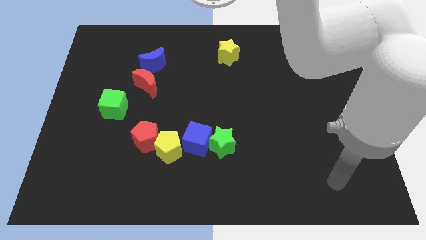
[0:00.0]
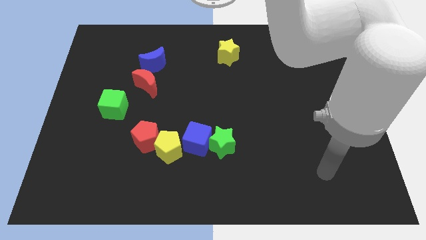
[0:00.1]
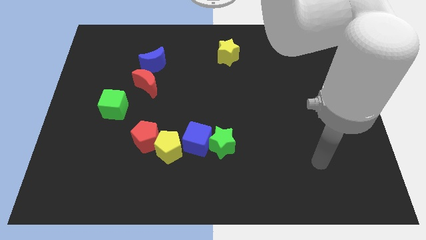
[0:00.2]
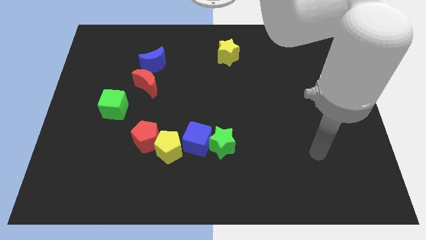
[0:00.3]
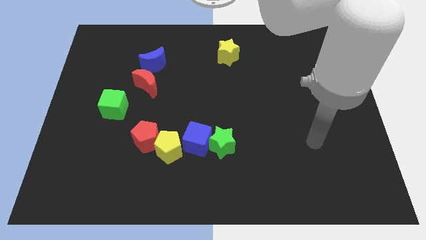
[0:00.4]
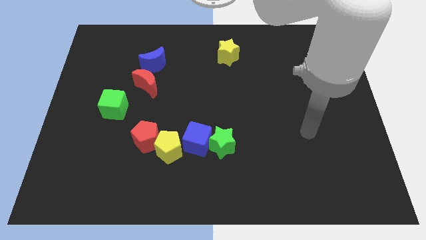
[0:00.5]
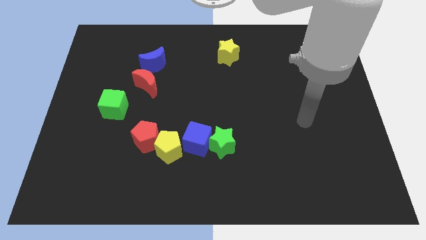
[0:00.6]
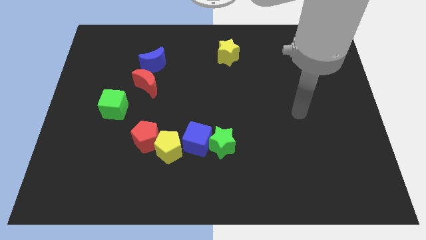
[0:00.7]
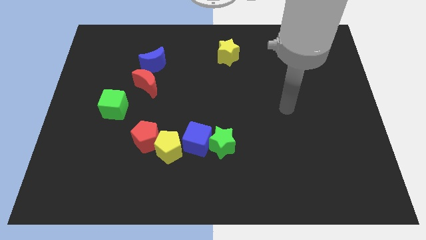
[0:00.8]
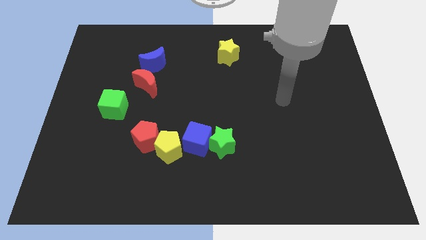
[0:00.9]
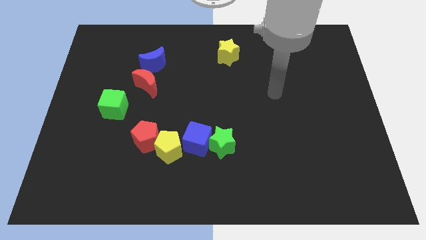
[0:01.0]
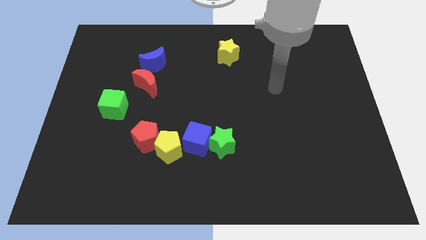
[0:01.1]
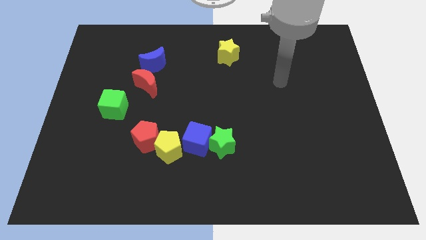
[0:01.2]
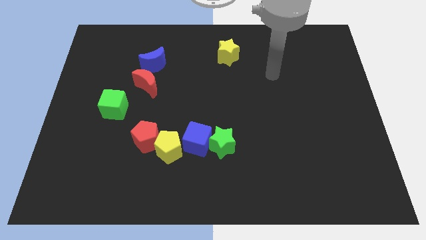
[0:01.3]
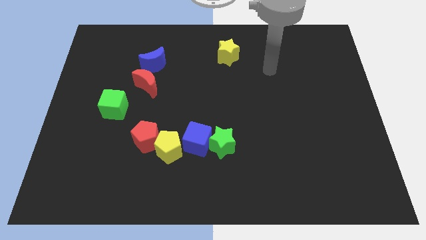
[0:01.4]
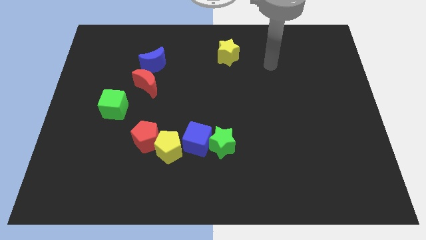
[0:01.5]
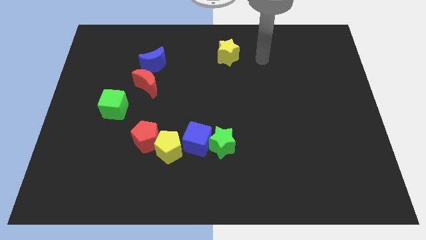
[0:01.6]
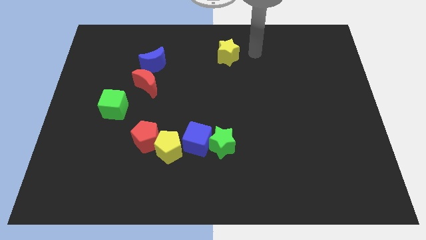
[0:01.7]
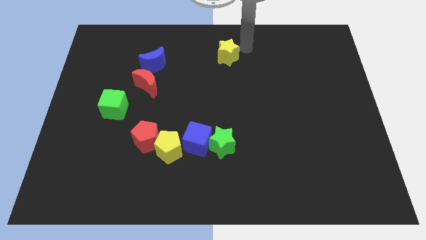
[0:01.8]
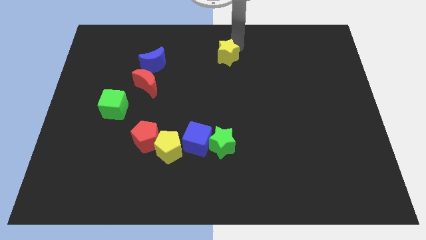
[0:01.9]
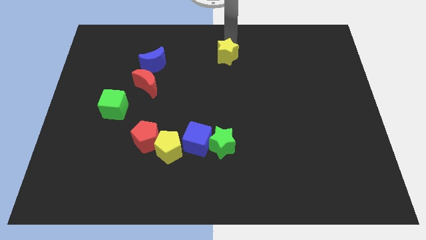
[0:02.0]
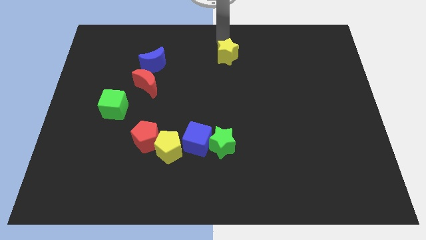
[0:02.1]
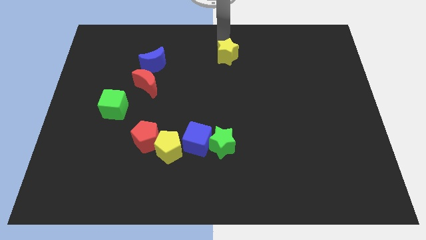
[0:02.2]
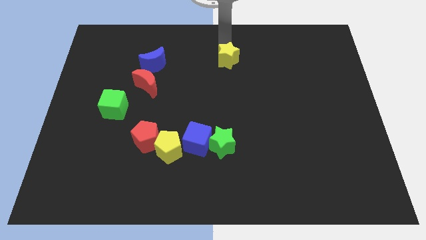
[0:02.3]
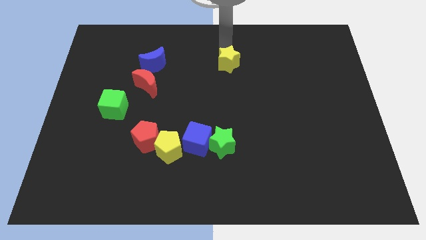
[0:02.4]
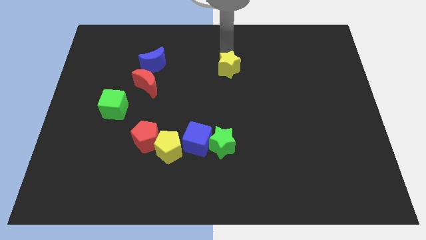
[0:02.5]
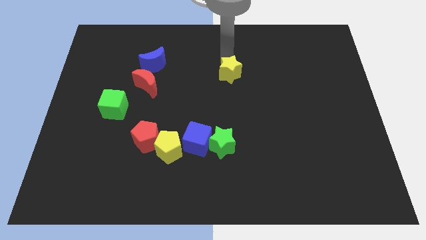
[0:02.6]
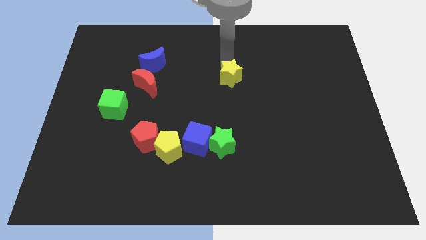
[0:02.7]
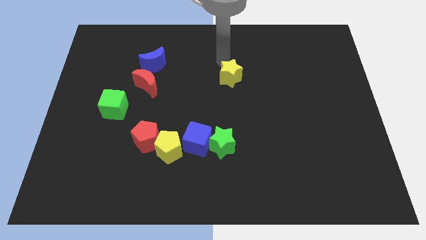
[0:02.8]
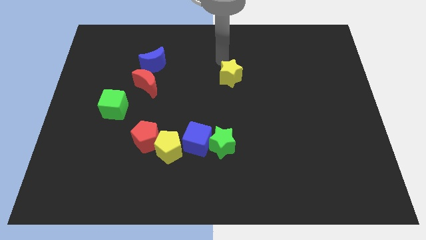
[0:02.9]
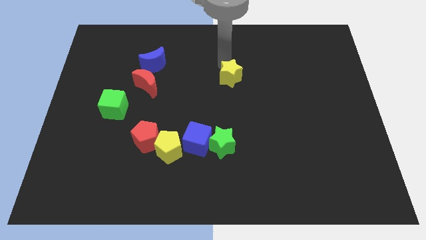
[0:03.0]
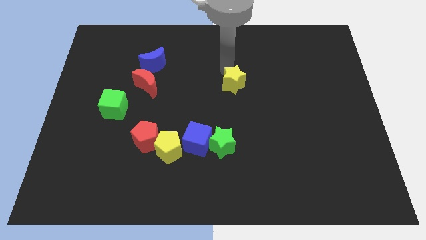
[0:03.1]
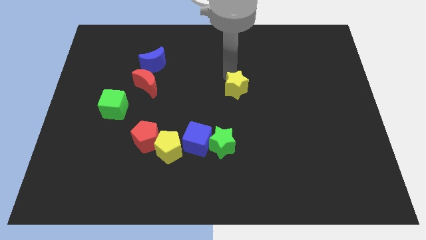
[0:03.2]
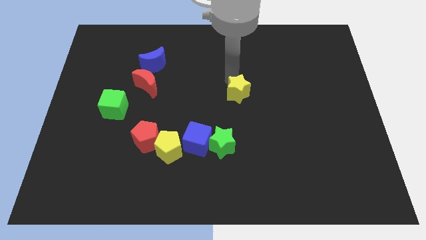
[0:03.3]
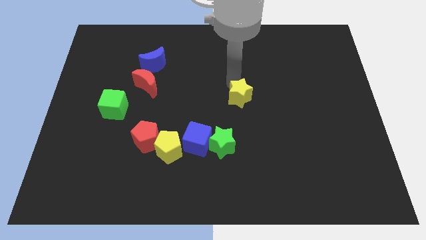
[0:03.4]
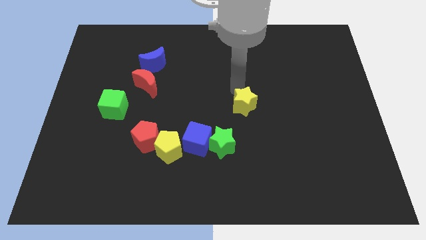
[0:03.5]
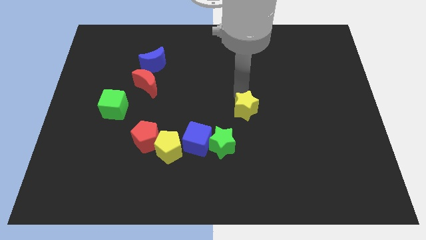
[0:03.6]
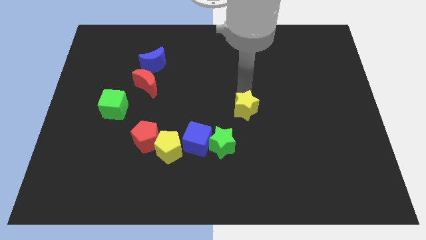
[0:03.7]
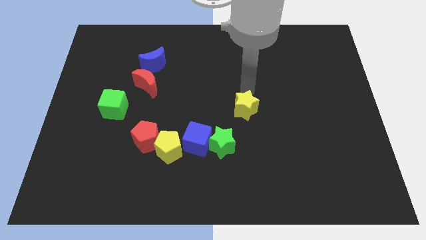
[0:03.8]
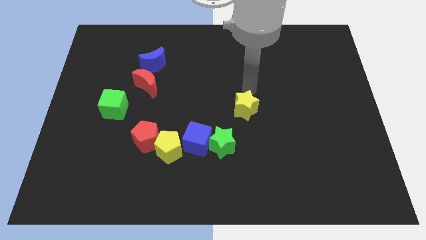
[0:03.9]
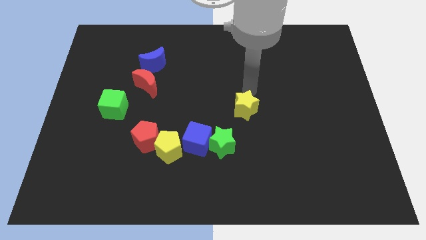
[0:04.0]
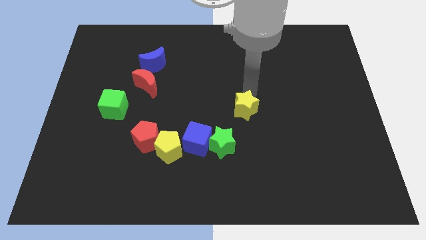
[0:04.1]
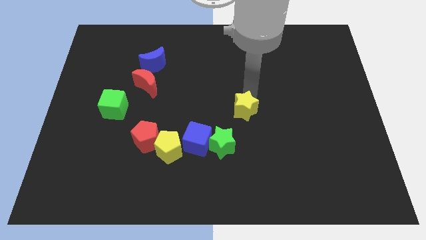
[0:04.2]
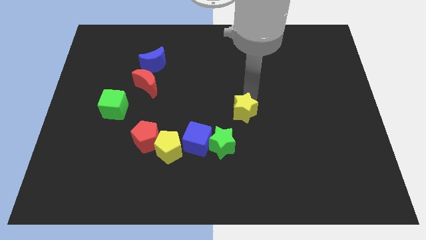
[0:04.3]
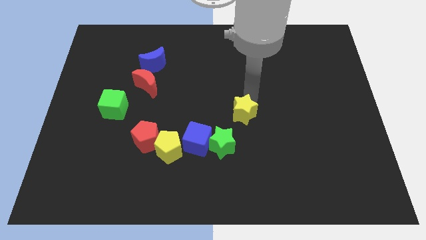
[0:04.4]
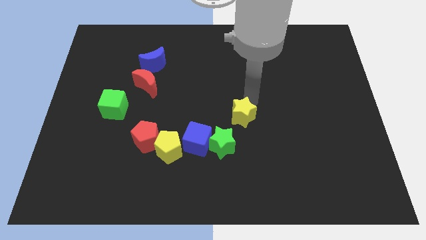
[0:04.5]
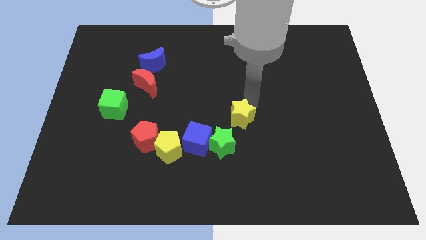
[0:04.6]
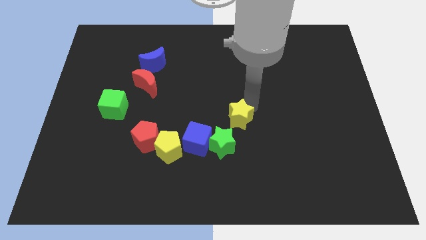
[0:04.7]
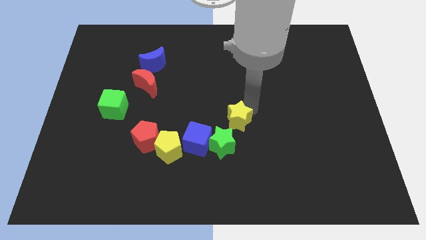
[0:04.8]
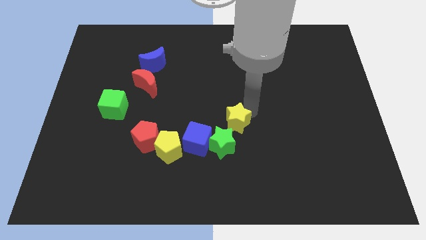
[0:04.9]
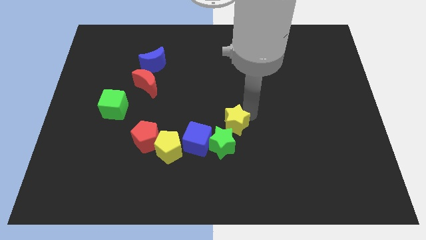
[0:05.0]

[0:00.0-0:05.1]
slide the yellow star to the right of the blue cube

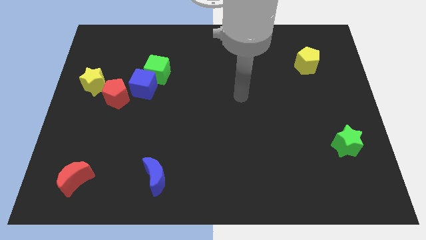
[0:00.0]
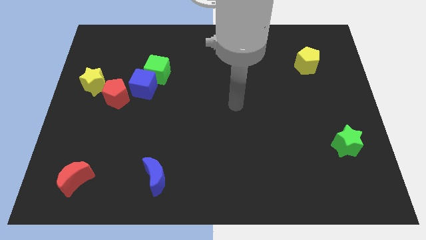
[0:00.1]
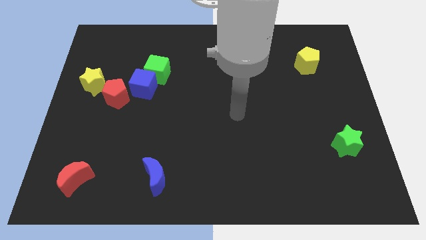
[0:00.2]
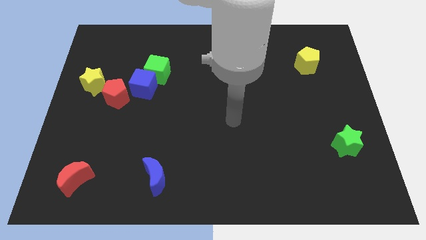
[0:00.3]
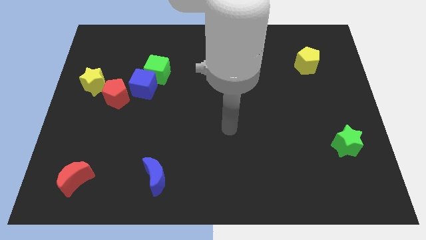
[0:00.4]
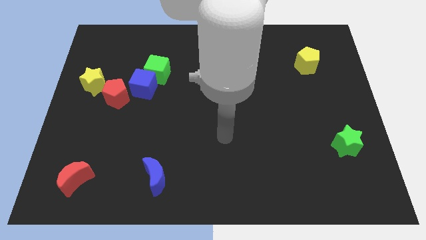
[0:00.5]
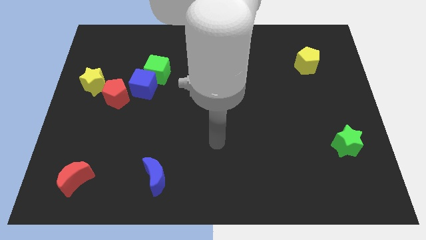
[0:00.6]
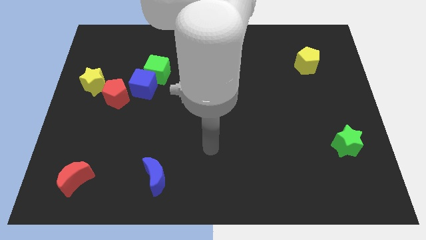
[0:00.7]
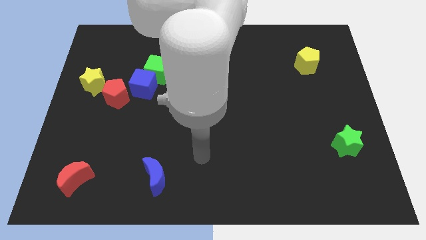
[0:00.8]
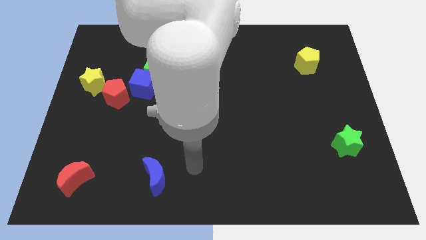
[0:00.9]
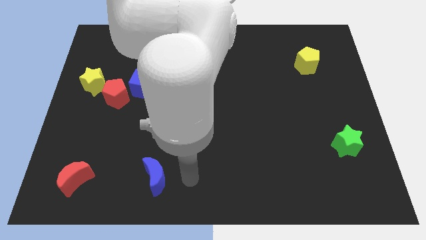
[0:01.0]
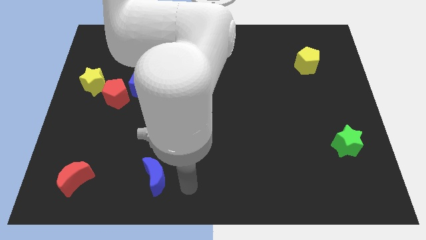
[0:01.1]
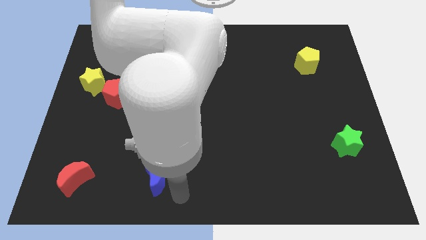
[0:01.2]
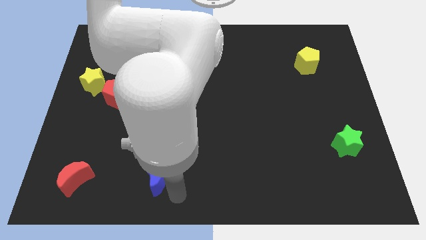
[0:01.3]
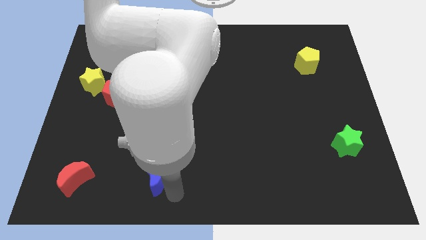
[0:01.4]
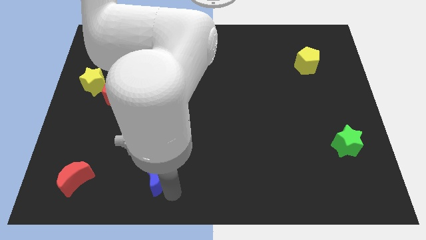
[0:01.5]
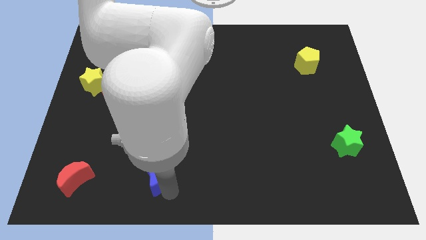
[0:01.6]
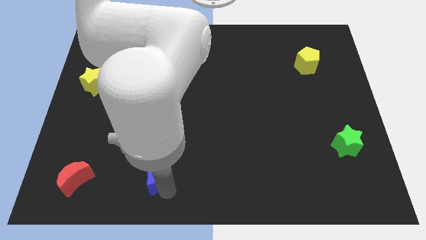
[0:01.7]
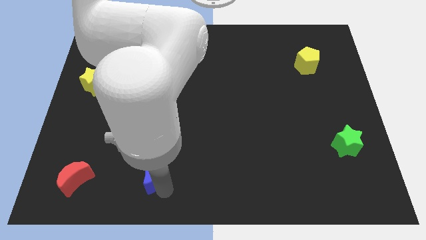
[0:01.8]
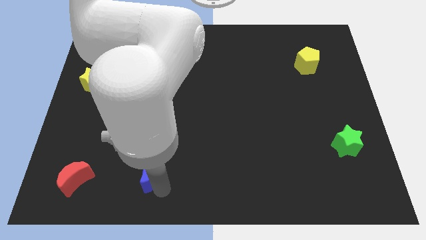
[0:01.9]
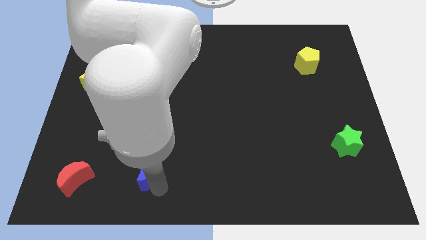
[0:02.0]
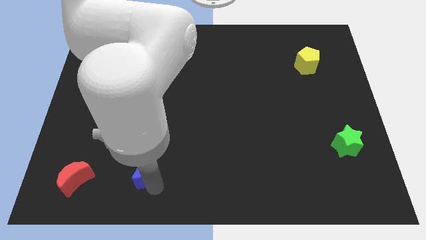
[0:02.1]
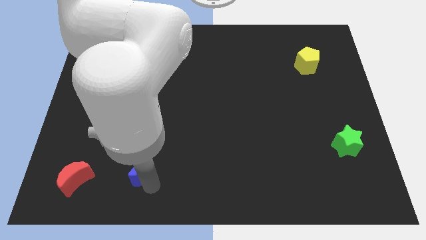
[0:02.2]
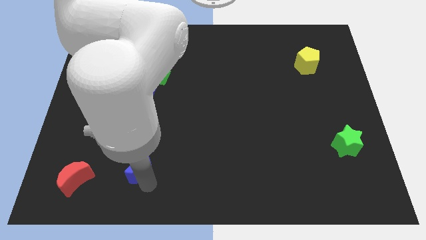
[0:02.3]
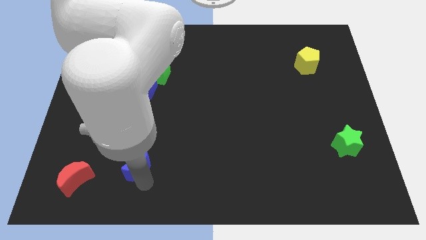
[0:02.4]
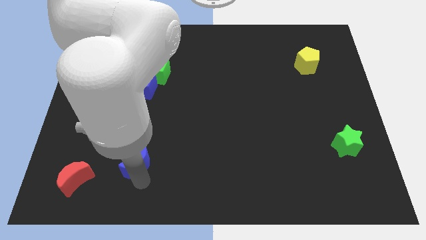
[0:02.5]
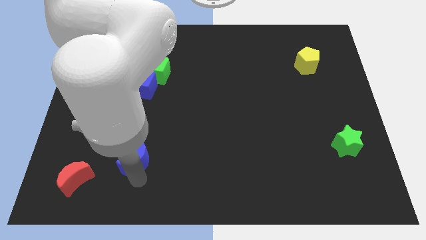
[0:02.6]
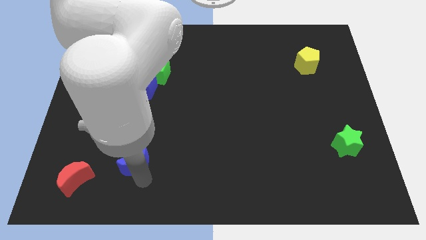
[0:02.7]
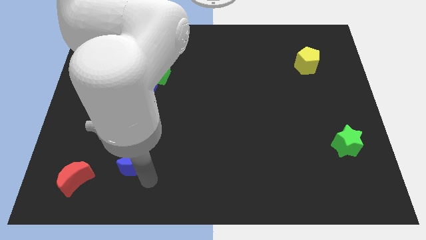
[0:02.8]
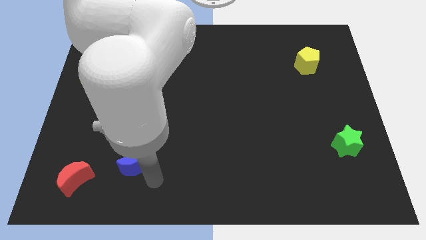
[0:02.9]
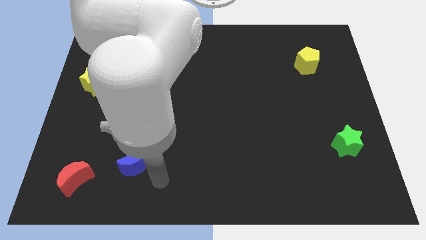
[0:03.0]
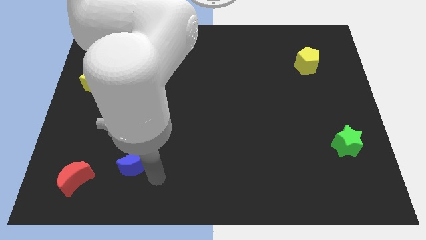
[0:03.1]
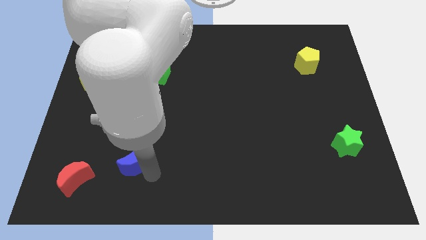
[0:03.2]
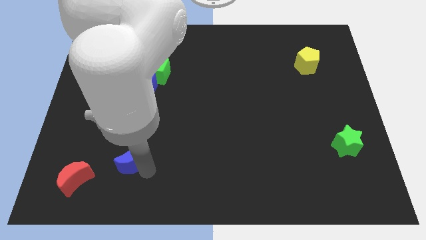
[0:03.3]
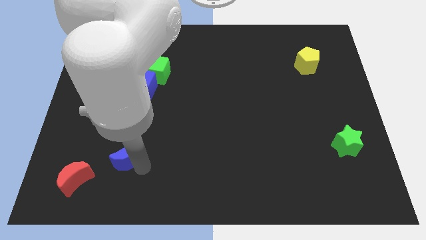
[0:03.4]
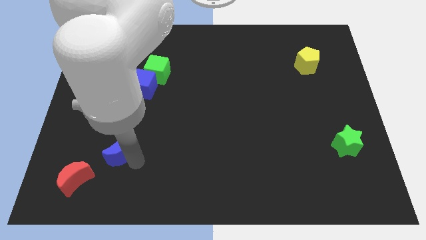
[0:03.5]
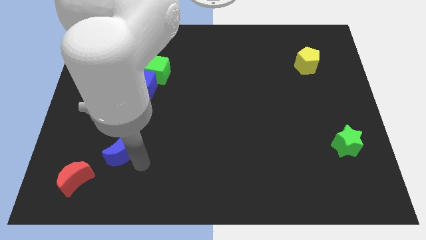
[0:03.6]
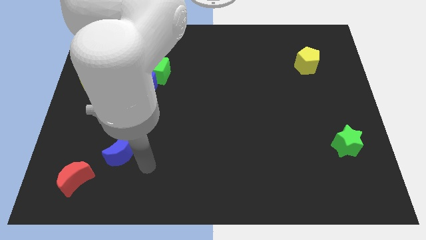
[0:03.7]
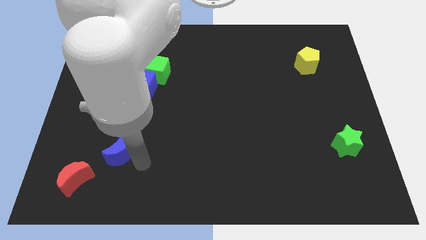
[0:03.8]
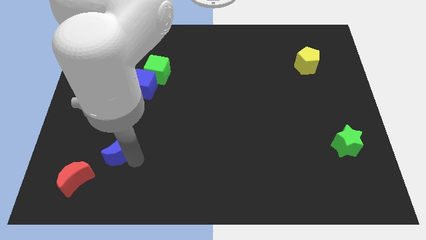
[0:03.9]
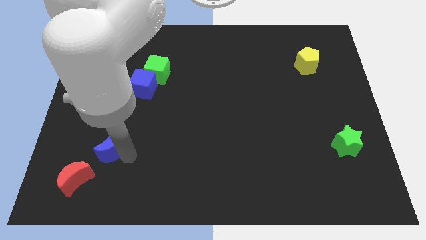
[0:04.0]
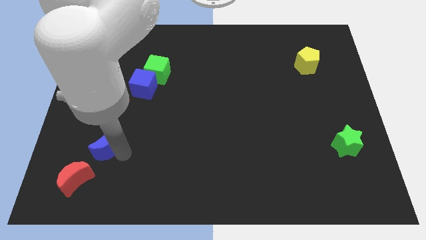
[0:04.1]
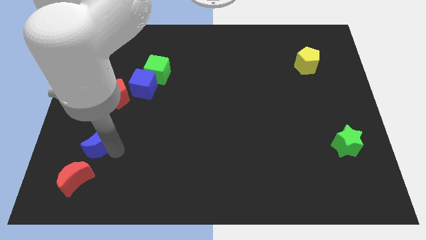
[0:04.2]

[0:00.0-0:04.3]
move the blue moon above the red moon
